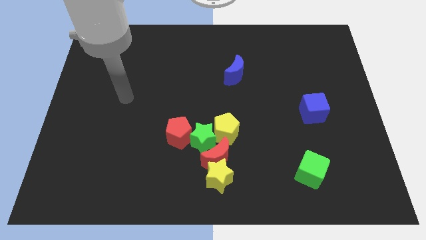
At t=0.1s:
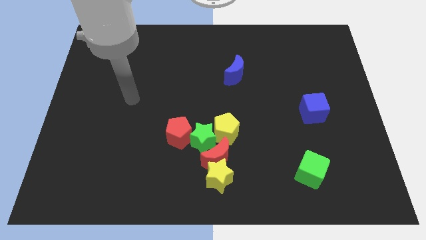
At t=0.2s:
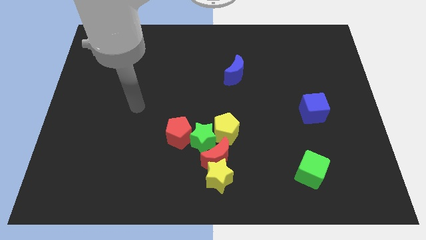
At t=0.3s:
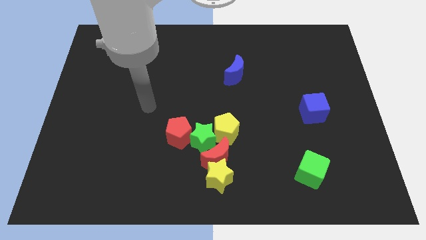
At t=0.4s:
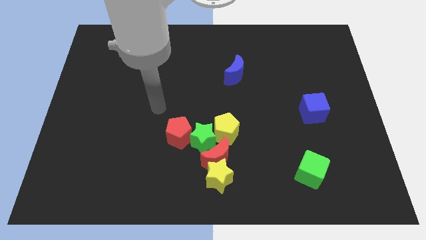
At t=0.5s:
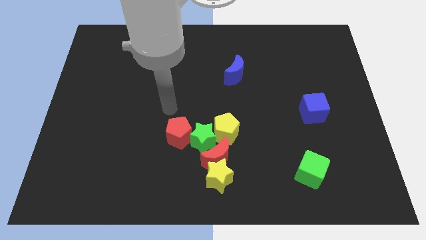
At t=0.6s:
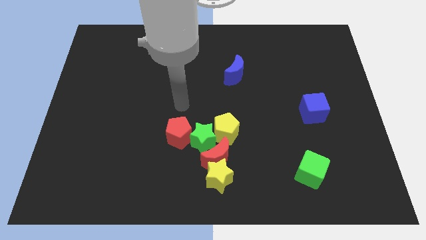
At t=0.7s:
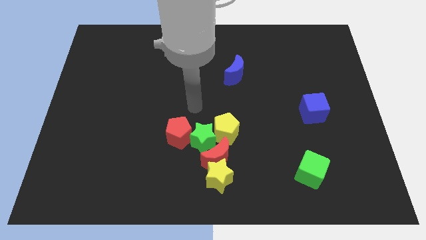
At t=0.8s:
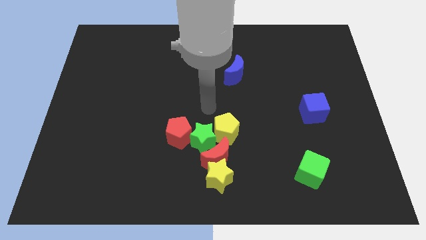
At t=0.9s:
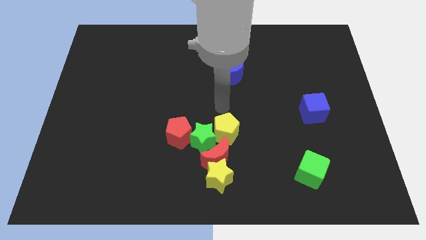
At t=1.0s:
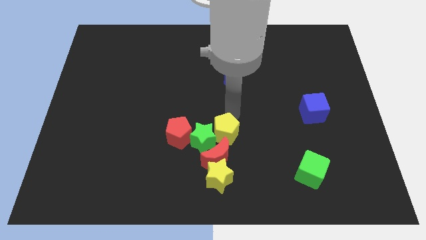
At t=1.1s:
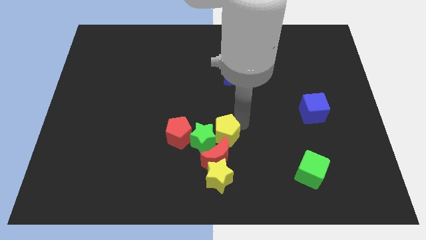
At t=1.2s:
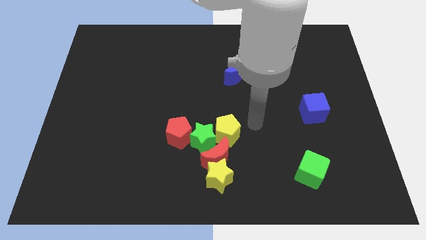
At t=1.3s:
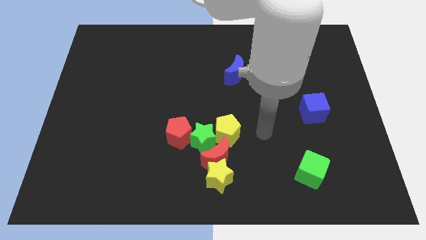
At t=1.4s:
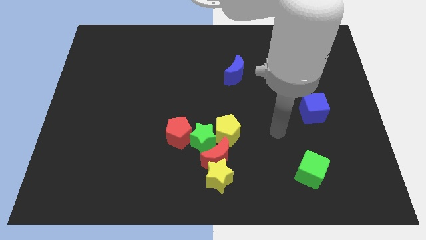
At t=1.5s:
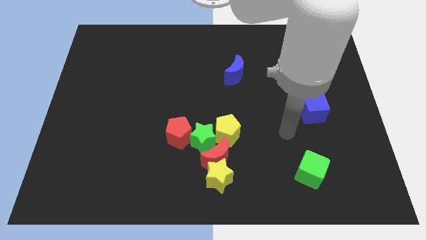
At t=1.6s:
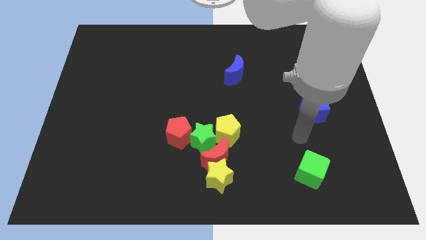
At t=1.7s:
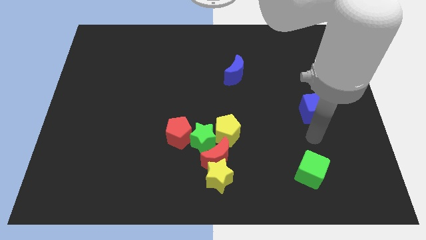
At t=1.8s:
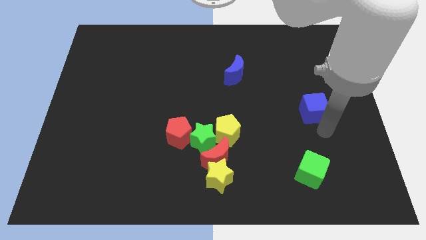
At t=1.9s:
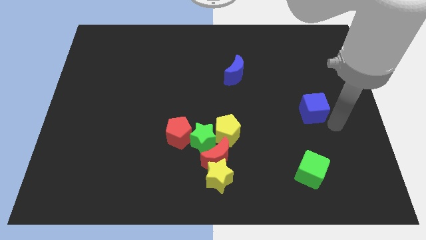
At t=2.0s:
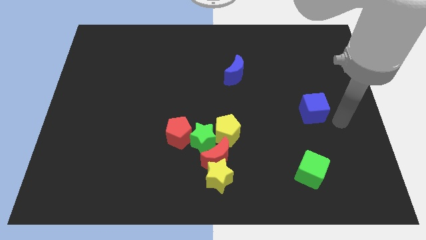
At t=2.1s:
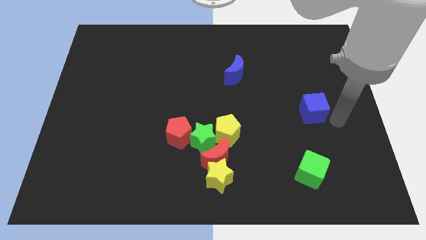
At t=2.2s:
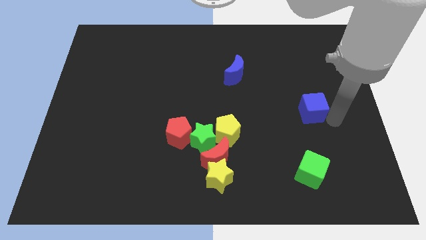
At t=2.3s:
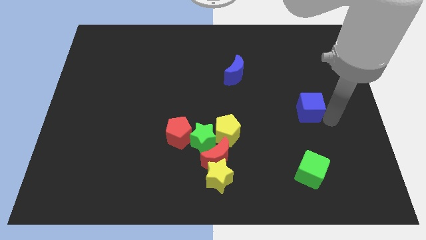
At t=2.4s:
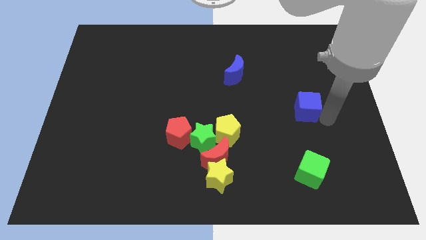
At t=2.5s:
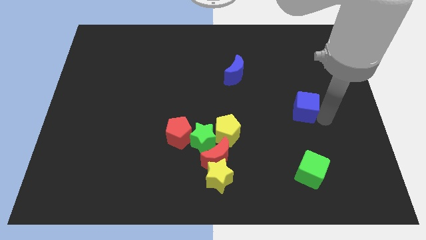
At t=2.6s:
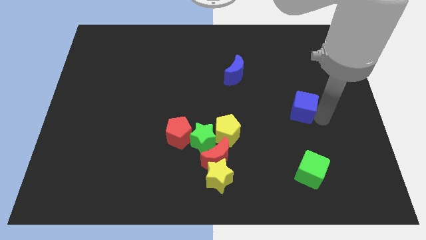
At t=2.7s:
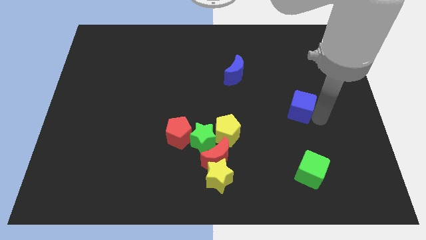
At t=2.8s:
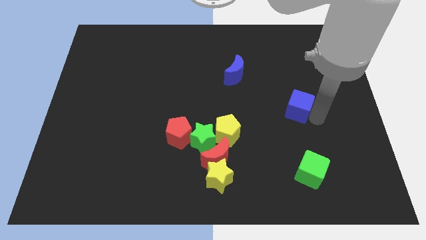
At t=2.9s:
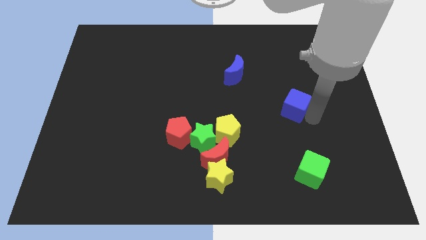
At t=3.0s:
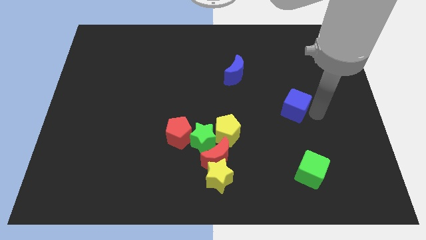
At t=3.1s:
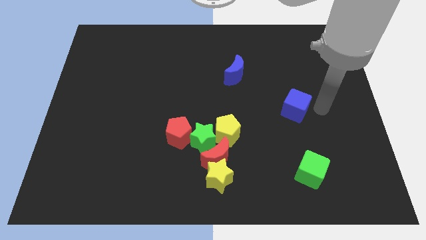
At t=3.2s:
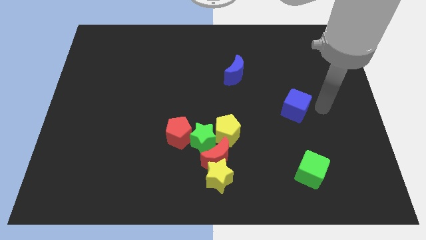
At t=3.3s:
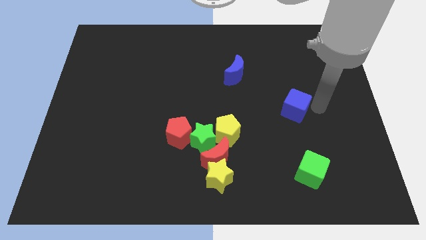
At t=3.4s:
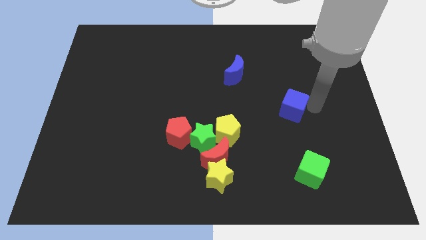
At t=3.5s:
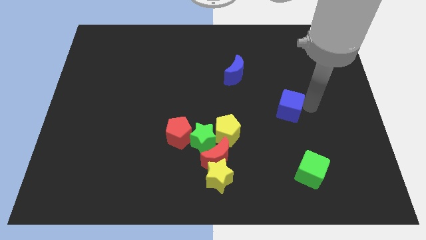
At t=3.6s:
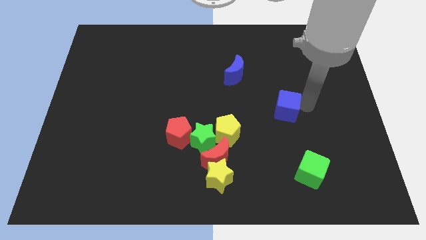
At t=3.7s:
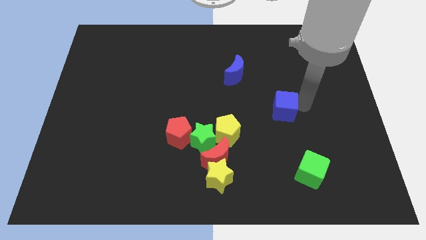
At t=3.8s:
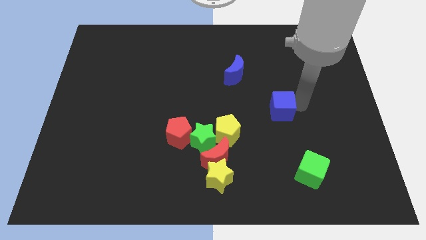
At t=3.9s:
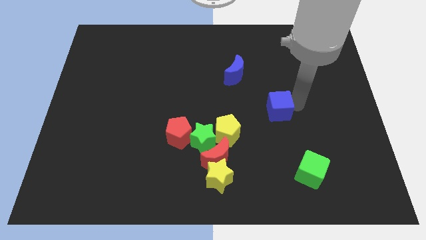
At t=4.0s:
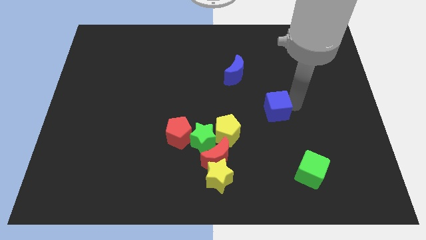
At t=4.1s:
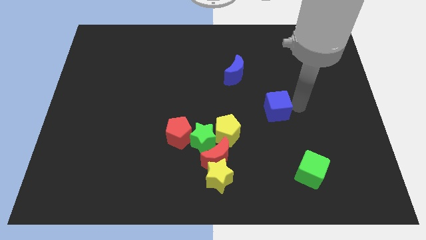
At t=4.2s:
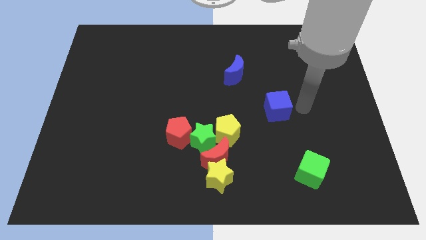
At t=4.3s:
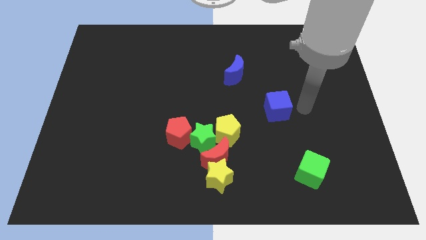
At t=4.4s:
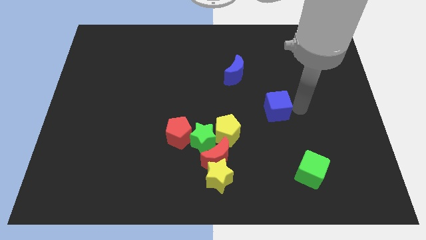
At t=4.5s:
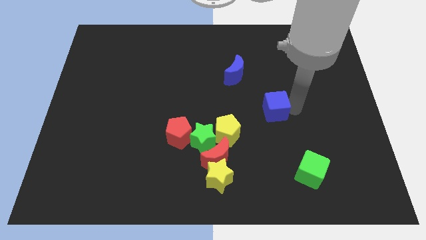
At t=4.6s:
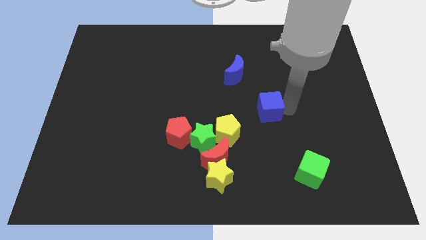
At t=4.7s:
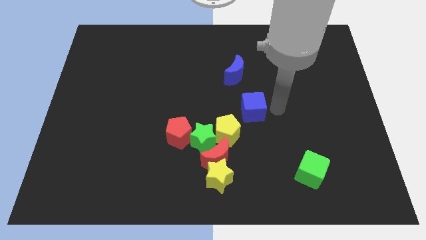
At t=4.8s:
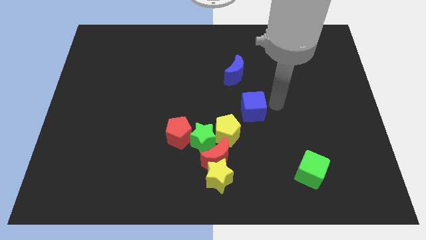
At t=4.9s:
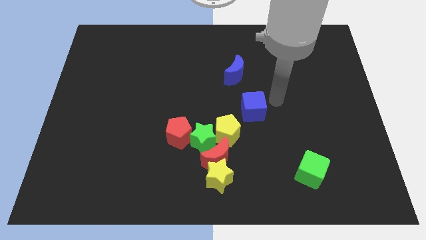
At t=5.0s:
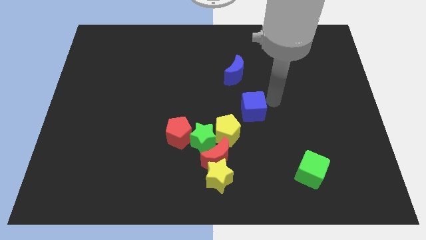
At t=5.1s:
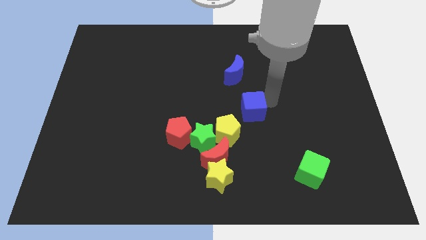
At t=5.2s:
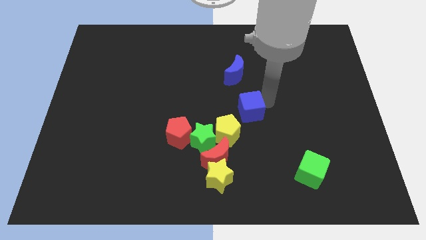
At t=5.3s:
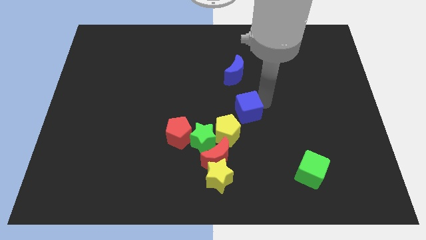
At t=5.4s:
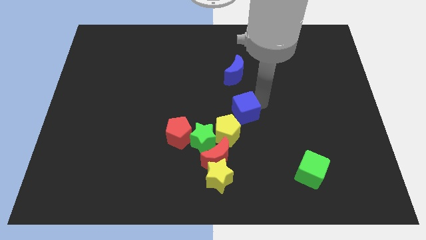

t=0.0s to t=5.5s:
slide the blue cube to the top right of the green star
